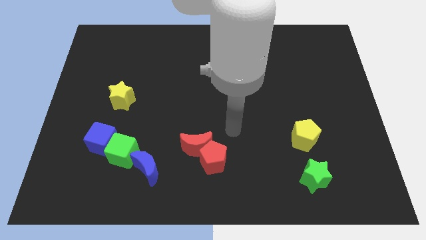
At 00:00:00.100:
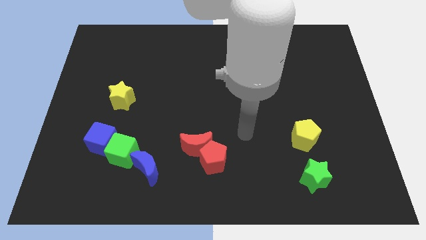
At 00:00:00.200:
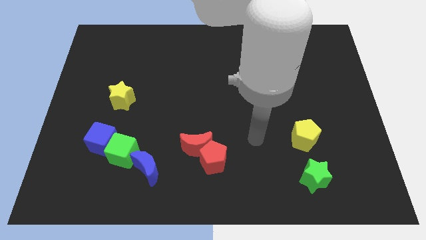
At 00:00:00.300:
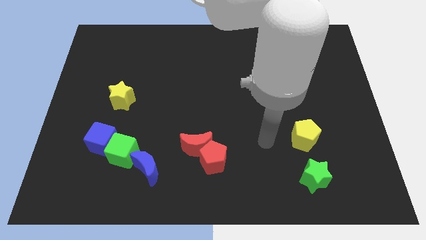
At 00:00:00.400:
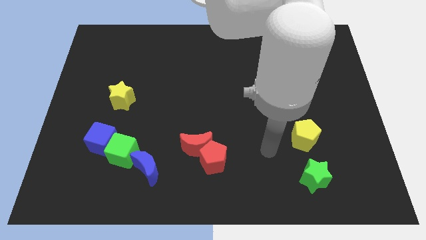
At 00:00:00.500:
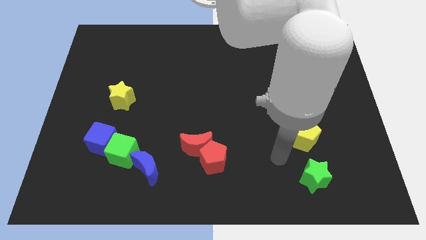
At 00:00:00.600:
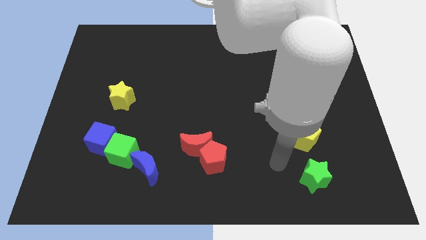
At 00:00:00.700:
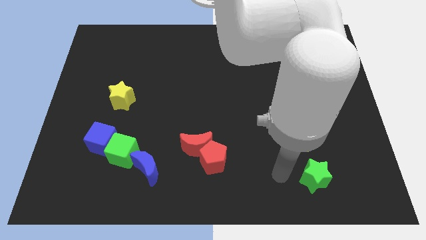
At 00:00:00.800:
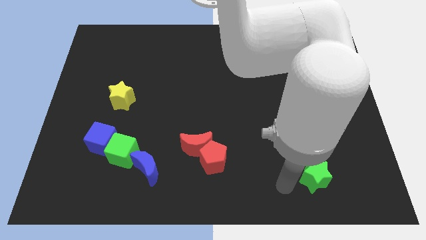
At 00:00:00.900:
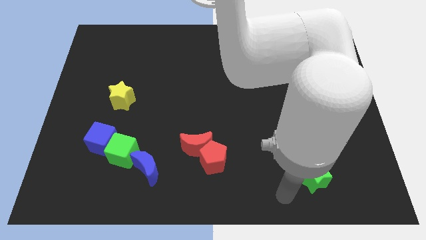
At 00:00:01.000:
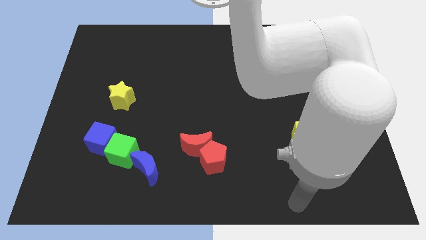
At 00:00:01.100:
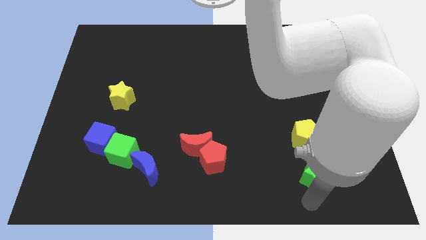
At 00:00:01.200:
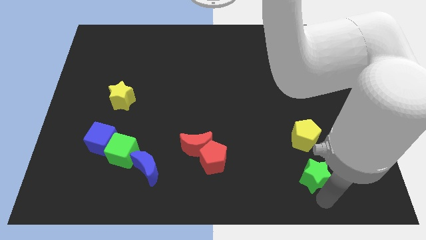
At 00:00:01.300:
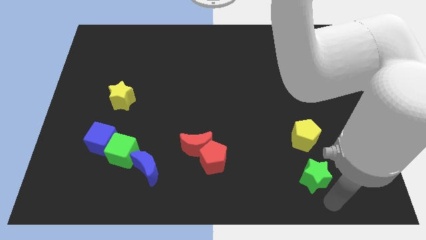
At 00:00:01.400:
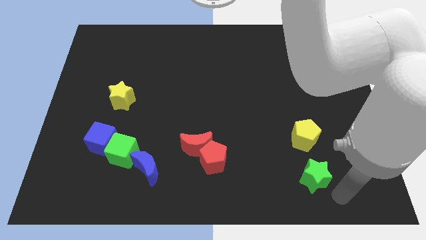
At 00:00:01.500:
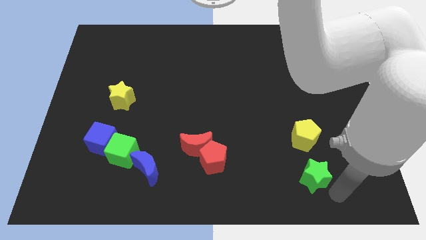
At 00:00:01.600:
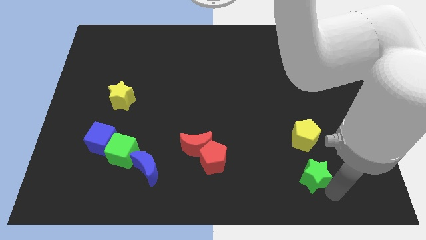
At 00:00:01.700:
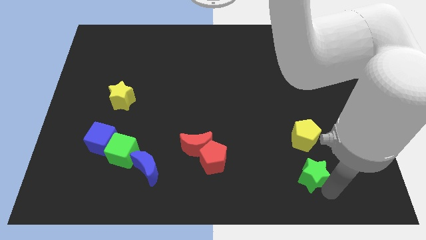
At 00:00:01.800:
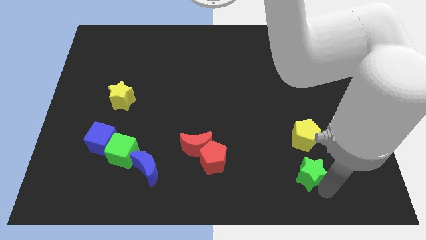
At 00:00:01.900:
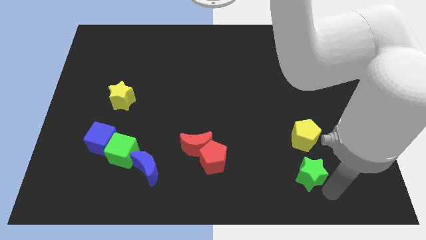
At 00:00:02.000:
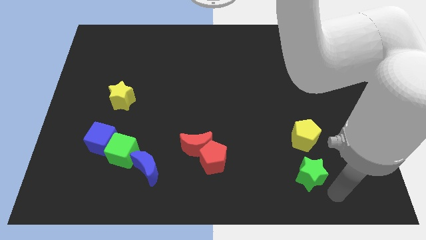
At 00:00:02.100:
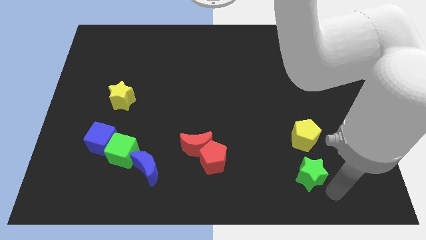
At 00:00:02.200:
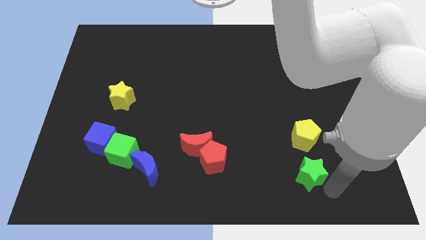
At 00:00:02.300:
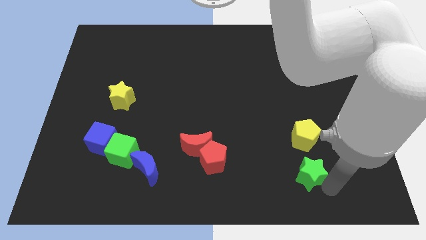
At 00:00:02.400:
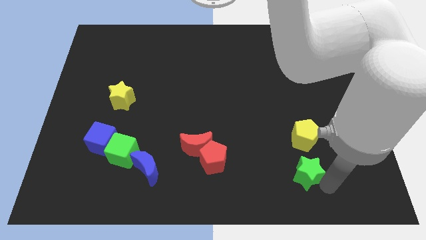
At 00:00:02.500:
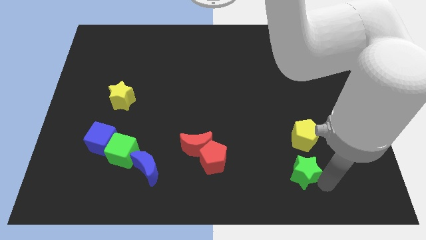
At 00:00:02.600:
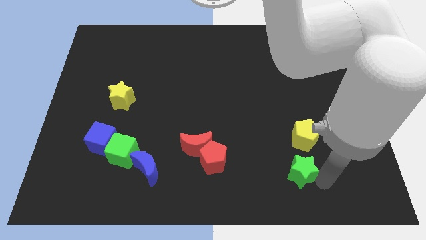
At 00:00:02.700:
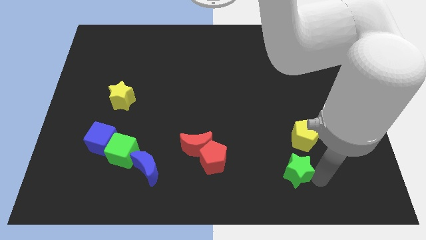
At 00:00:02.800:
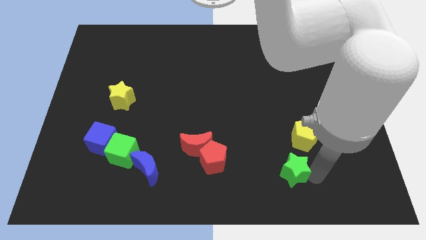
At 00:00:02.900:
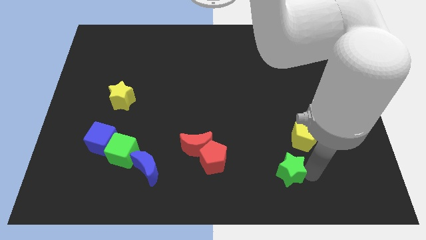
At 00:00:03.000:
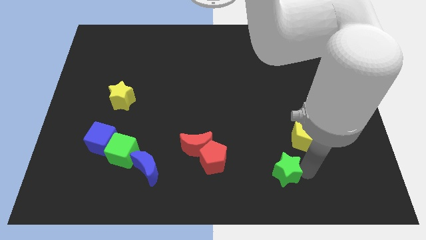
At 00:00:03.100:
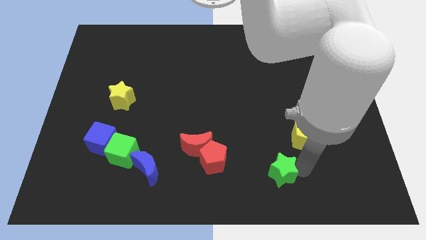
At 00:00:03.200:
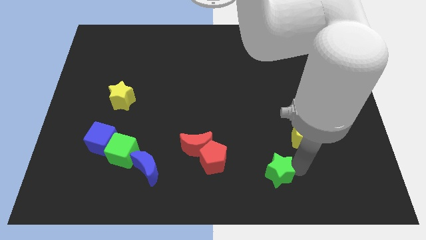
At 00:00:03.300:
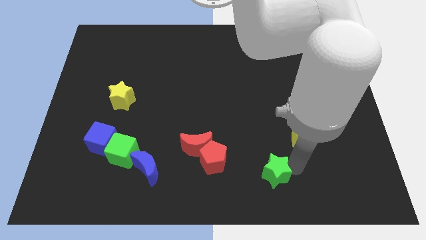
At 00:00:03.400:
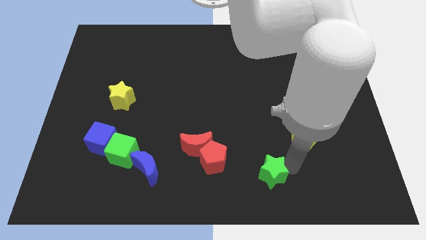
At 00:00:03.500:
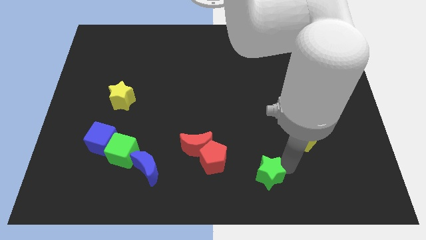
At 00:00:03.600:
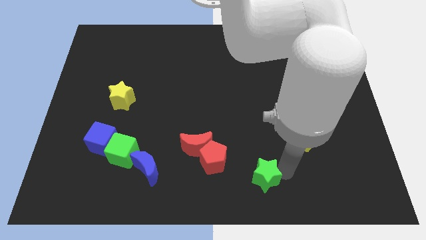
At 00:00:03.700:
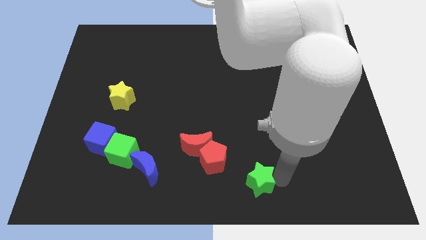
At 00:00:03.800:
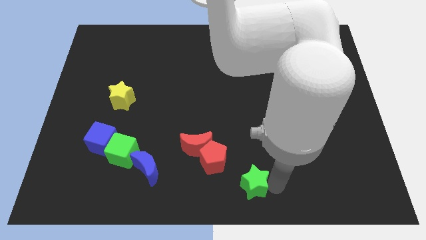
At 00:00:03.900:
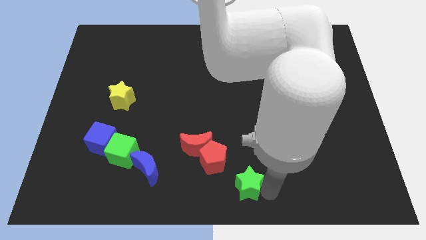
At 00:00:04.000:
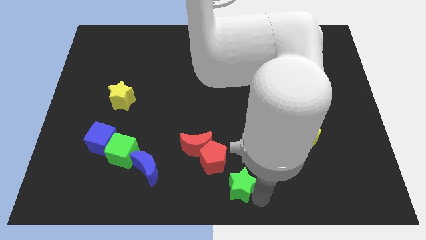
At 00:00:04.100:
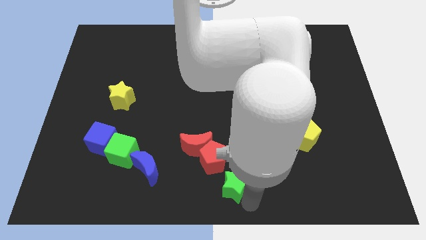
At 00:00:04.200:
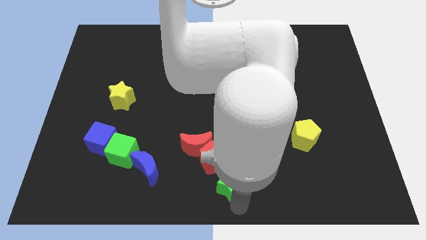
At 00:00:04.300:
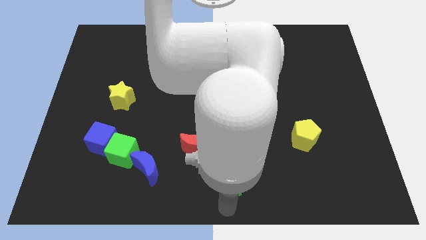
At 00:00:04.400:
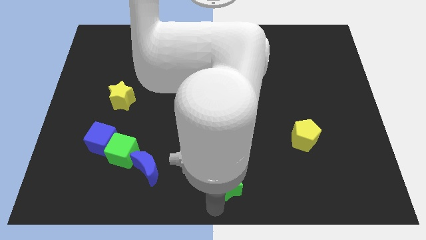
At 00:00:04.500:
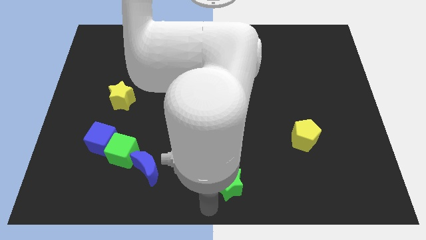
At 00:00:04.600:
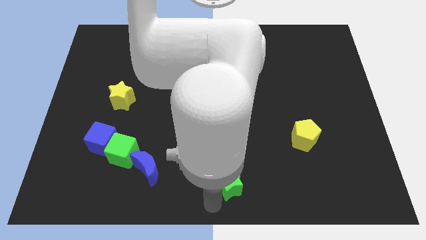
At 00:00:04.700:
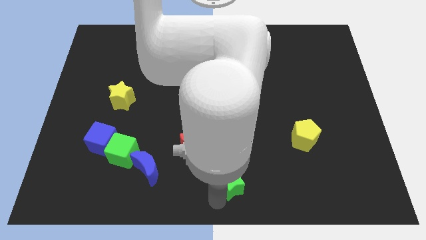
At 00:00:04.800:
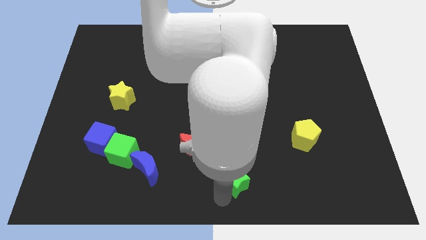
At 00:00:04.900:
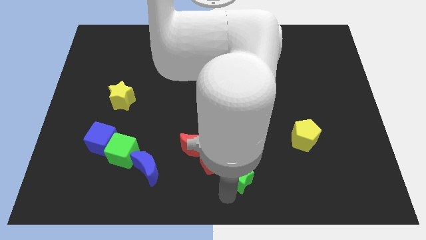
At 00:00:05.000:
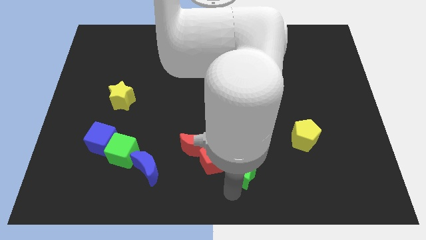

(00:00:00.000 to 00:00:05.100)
slightly move the green star diagonally upwards and left

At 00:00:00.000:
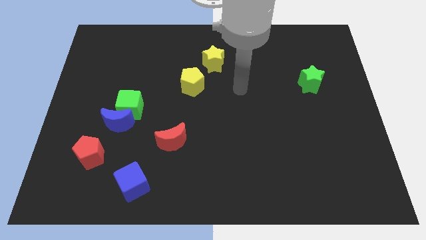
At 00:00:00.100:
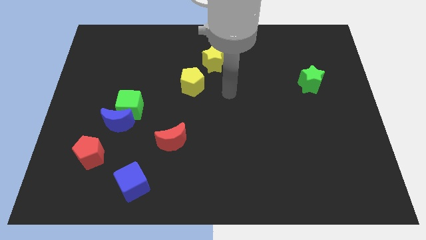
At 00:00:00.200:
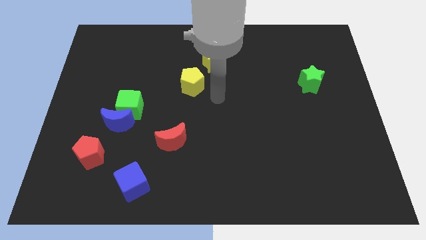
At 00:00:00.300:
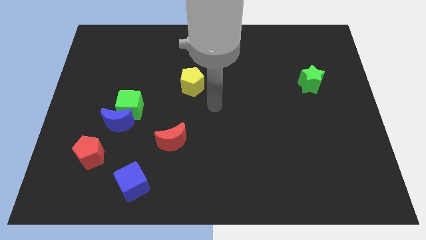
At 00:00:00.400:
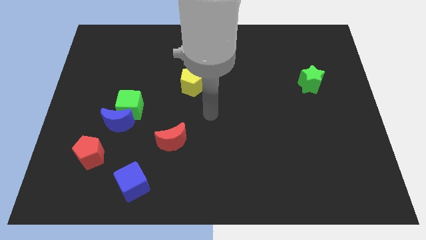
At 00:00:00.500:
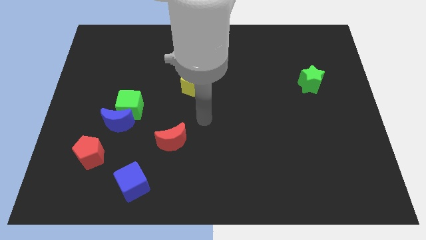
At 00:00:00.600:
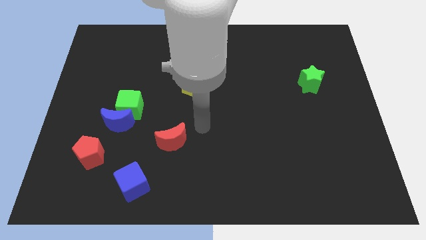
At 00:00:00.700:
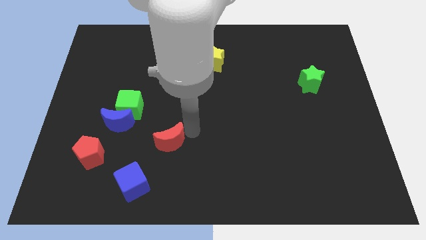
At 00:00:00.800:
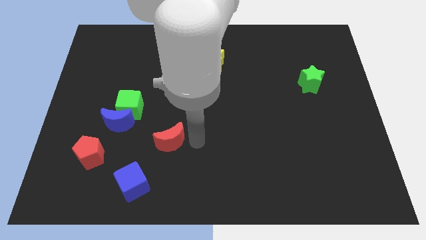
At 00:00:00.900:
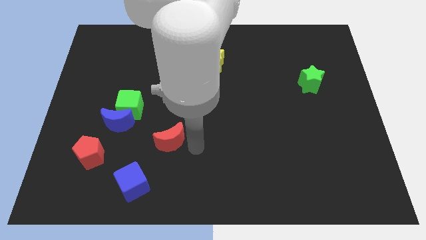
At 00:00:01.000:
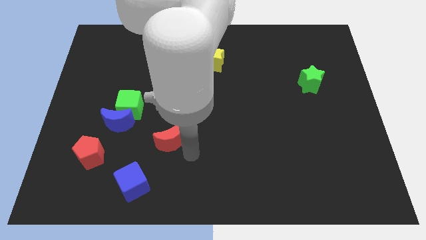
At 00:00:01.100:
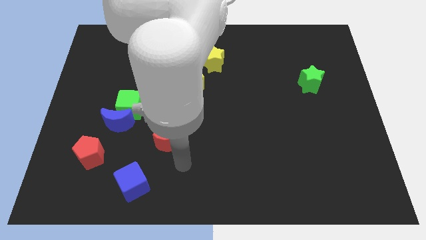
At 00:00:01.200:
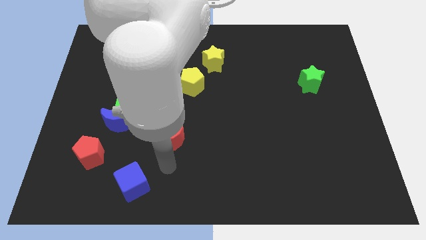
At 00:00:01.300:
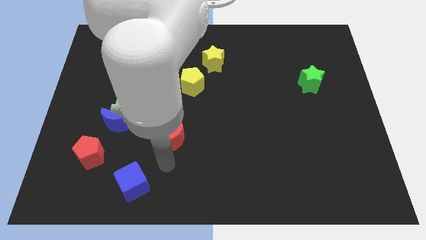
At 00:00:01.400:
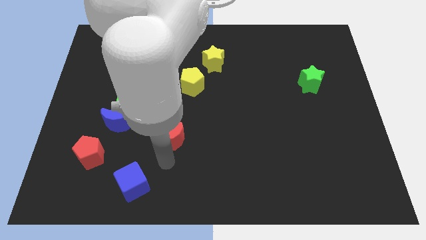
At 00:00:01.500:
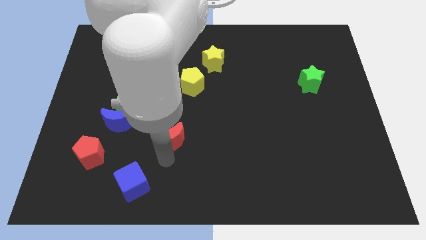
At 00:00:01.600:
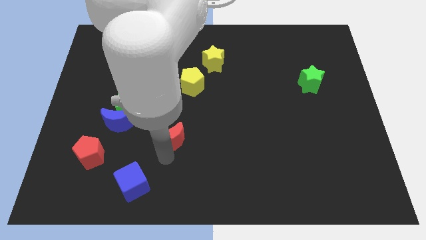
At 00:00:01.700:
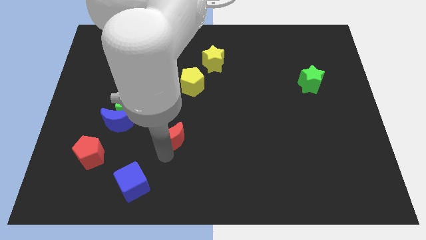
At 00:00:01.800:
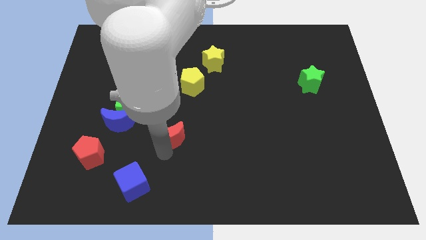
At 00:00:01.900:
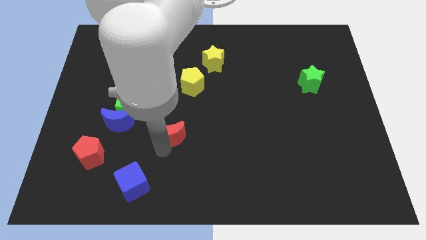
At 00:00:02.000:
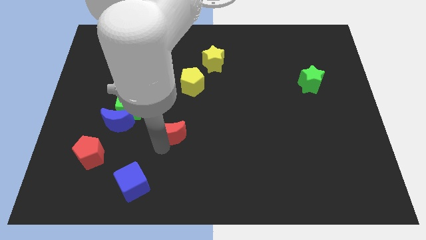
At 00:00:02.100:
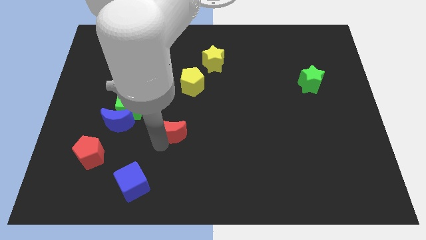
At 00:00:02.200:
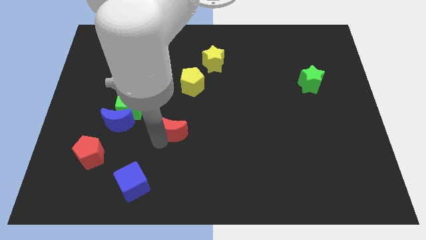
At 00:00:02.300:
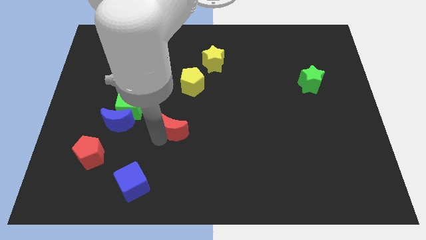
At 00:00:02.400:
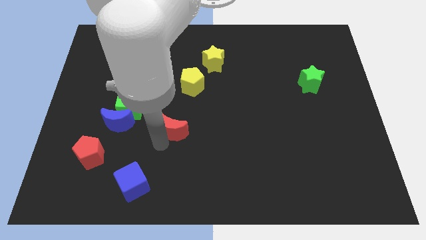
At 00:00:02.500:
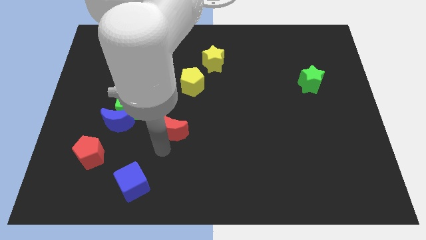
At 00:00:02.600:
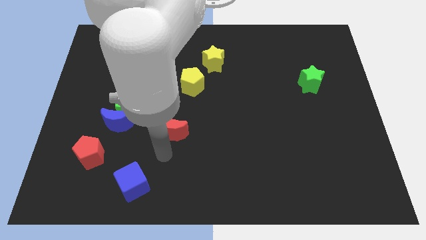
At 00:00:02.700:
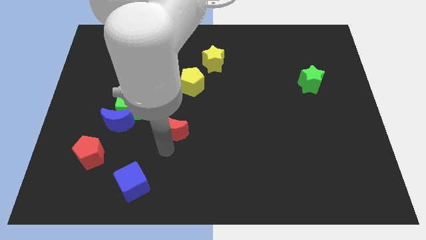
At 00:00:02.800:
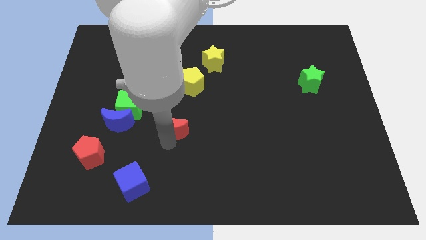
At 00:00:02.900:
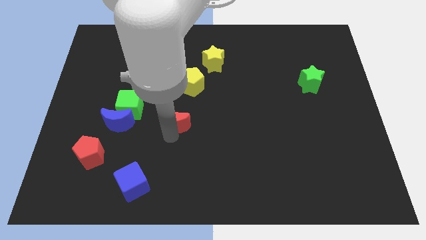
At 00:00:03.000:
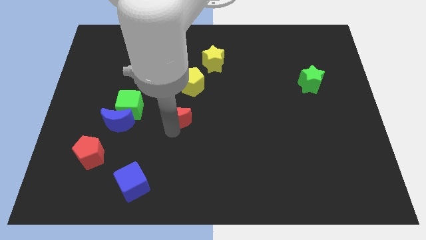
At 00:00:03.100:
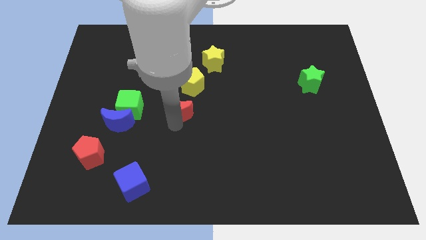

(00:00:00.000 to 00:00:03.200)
push the red moon a little bit upwards
